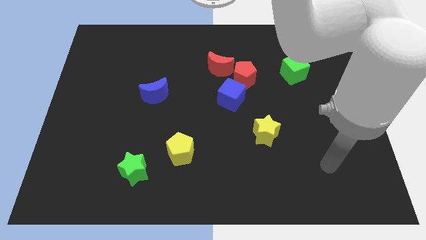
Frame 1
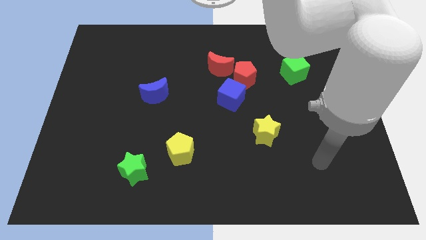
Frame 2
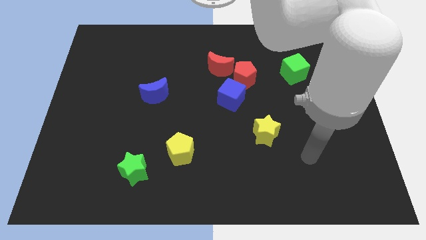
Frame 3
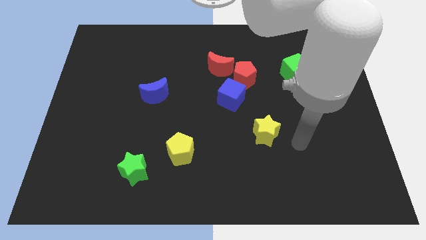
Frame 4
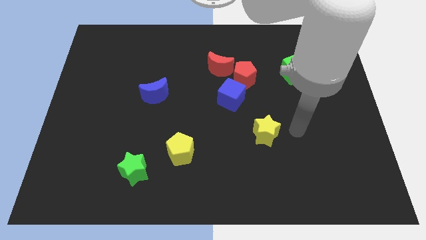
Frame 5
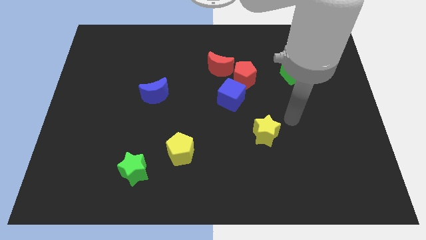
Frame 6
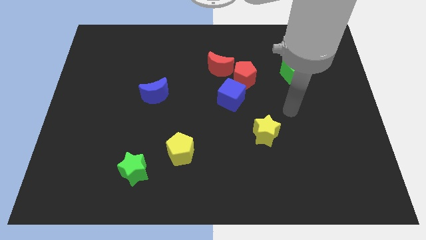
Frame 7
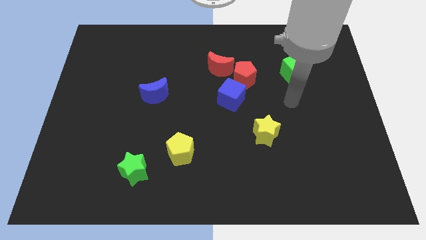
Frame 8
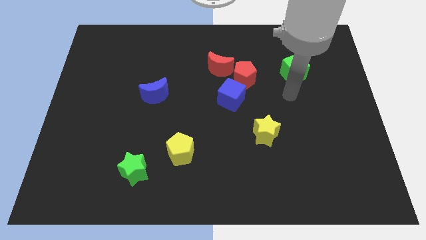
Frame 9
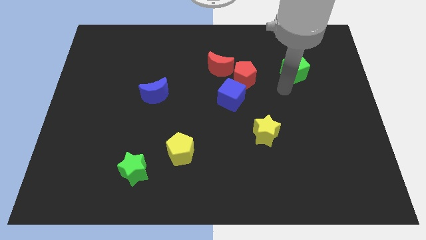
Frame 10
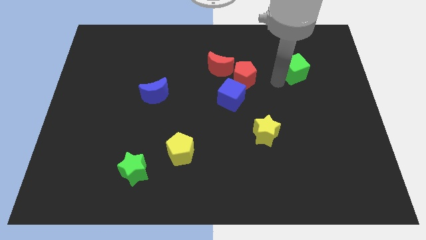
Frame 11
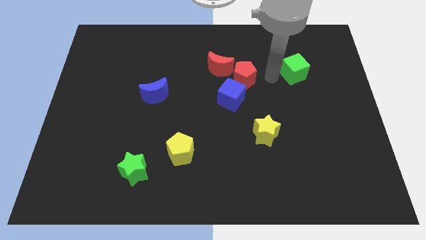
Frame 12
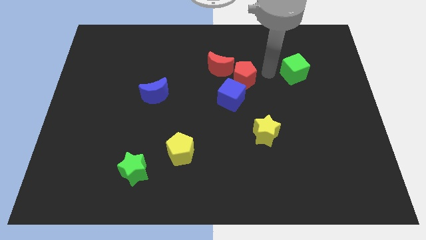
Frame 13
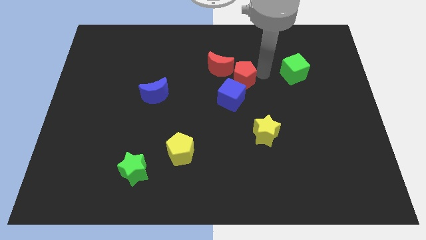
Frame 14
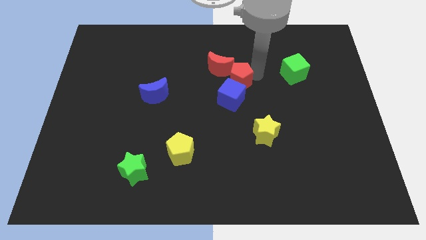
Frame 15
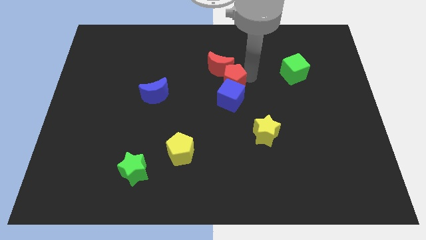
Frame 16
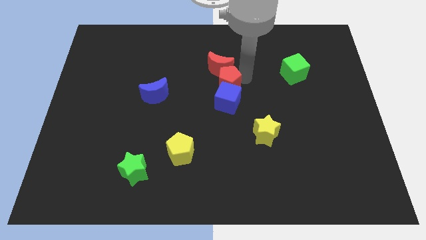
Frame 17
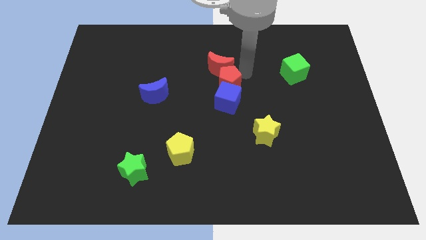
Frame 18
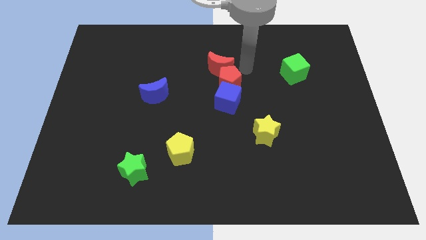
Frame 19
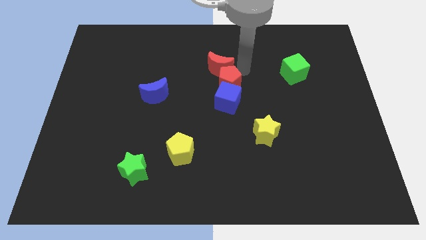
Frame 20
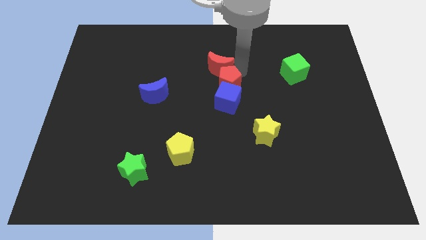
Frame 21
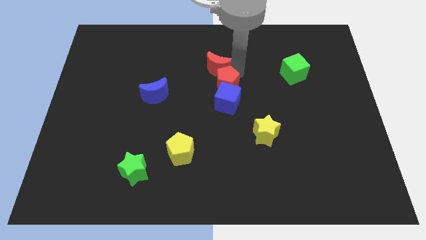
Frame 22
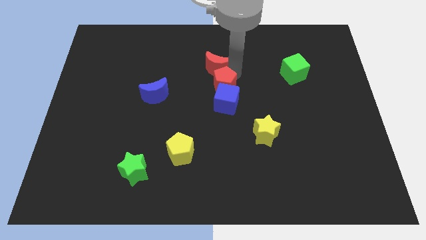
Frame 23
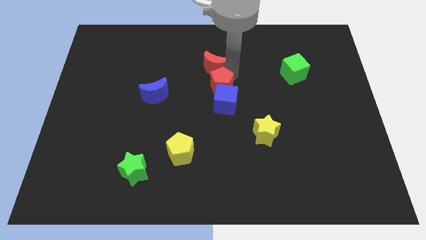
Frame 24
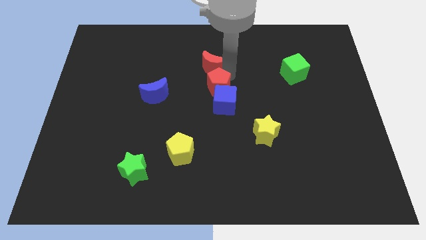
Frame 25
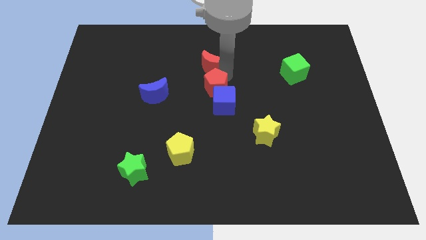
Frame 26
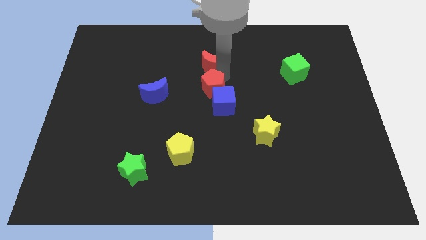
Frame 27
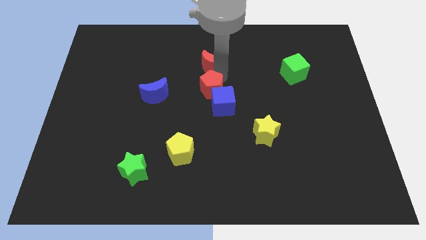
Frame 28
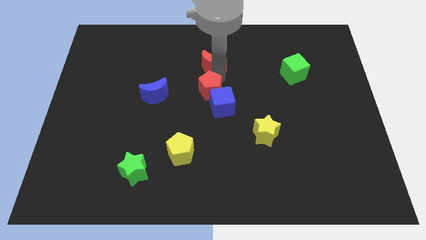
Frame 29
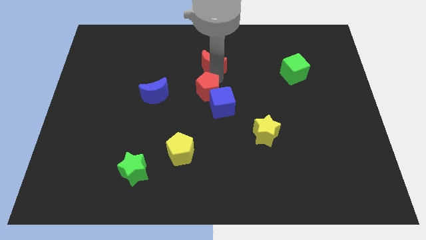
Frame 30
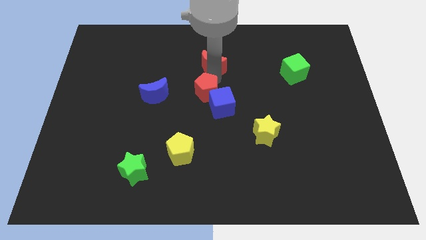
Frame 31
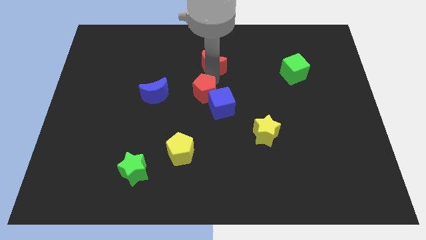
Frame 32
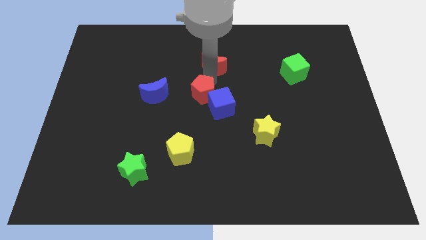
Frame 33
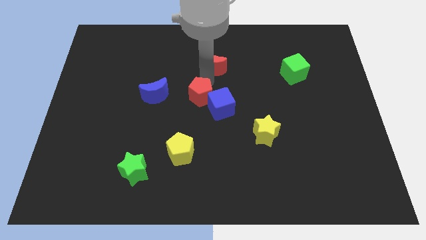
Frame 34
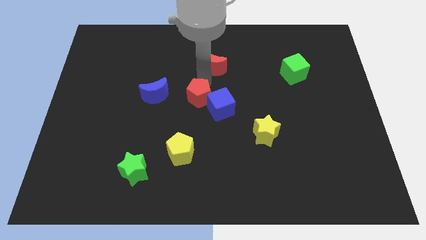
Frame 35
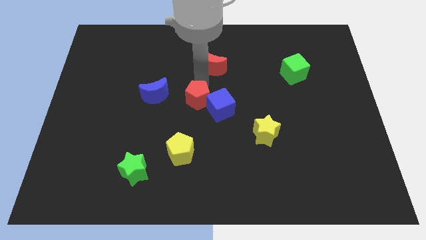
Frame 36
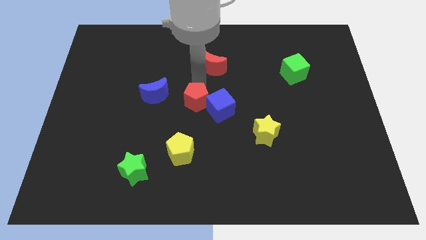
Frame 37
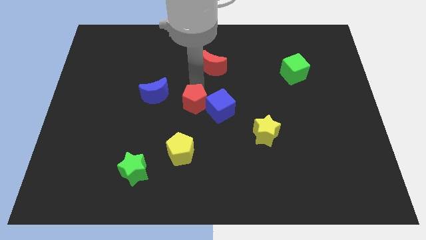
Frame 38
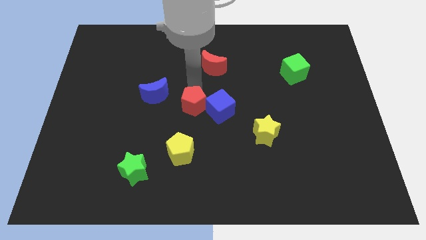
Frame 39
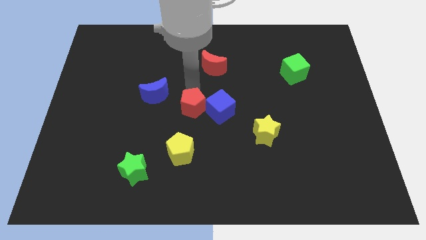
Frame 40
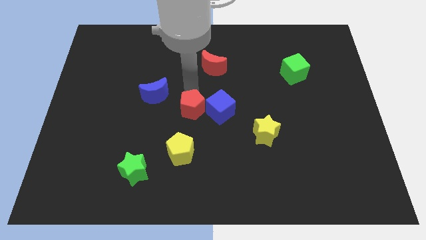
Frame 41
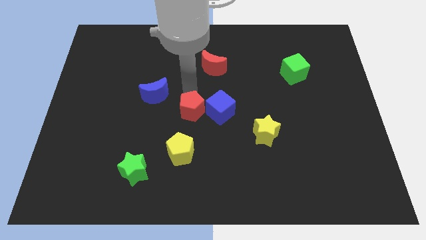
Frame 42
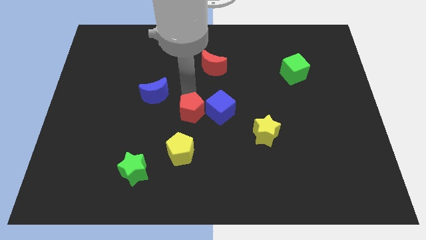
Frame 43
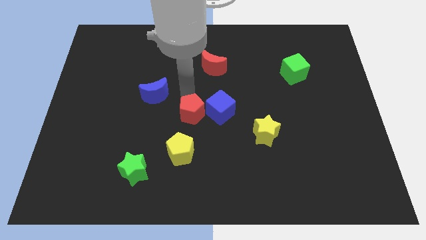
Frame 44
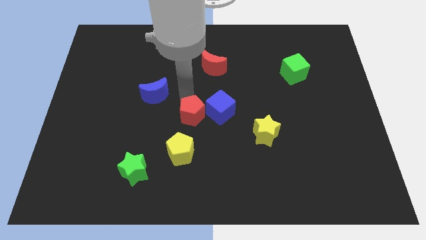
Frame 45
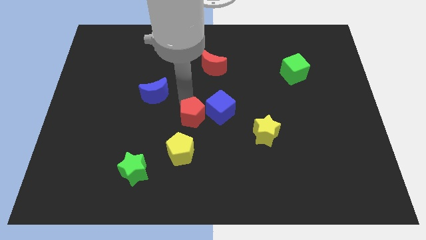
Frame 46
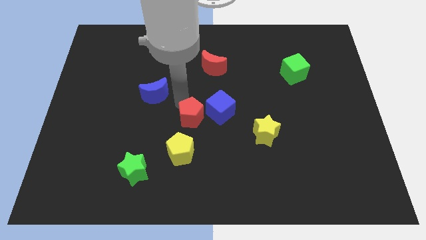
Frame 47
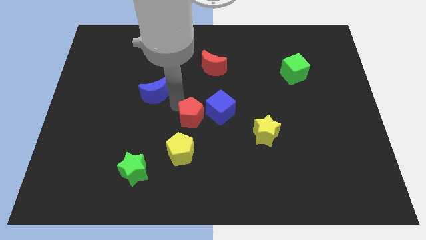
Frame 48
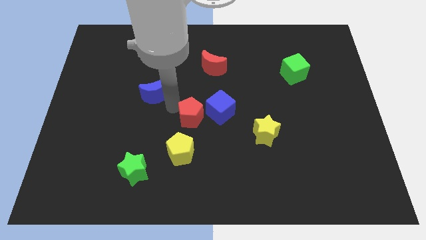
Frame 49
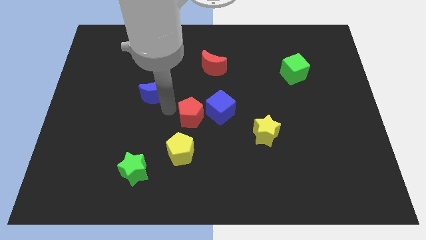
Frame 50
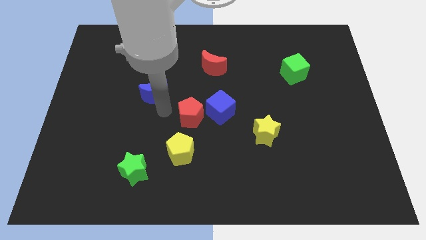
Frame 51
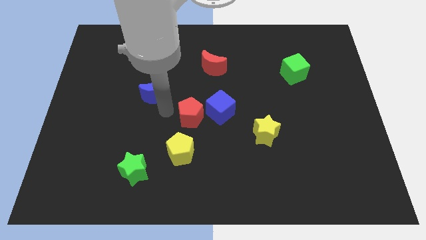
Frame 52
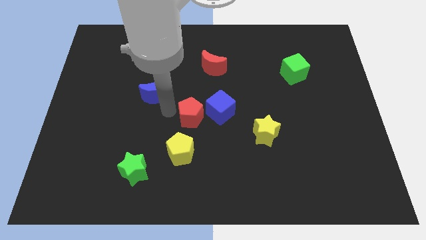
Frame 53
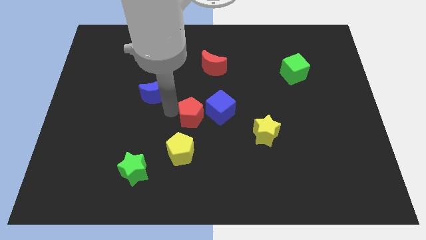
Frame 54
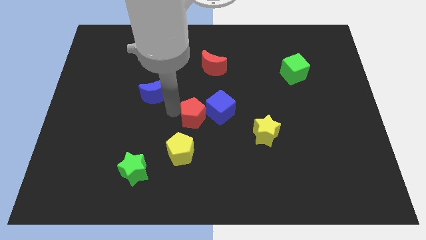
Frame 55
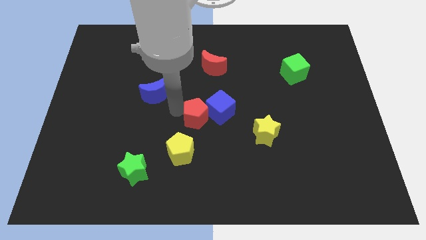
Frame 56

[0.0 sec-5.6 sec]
put the red pentagon diagonally up and to the right of the yellow pentagon

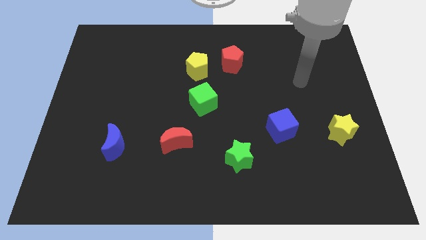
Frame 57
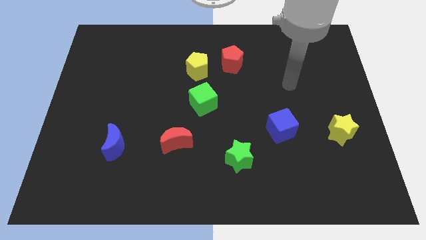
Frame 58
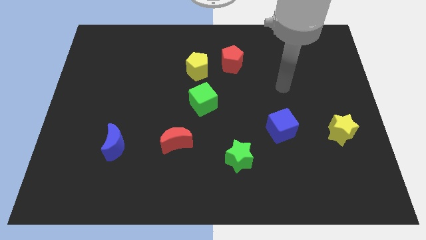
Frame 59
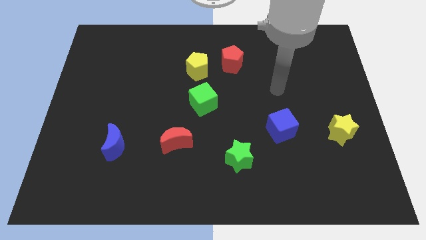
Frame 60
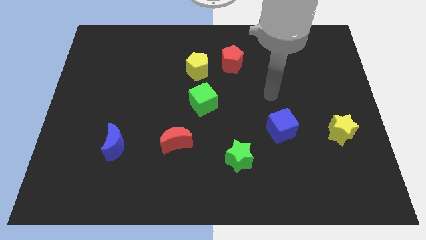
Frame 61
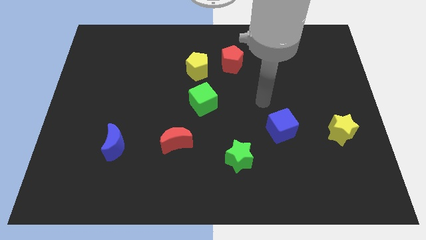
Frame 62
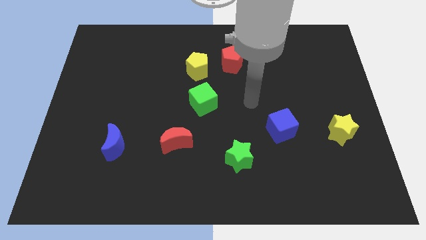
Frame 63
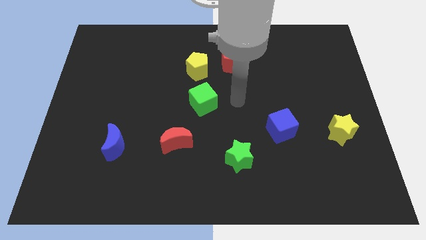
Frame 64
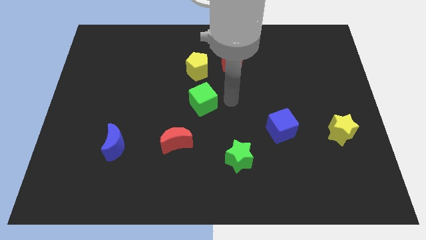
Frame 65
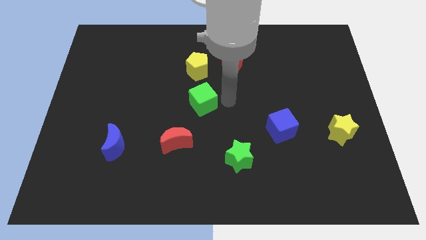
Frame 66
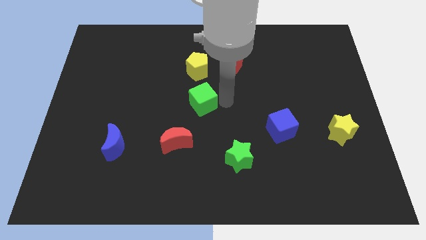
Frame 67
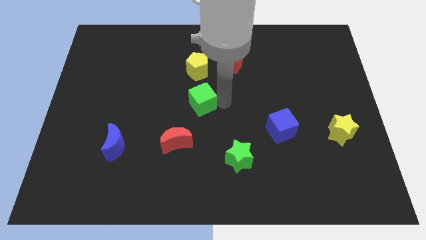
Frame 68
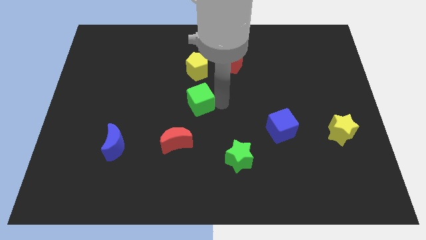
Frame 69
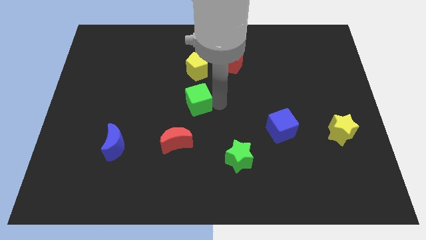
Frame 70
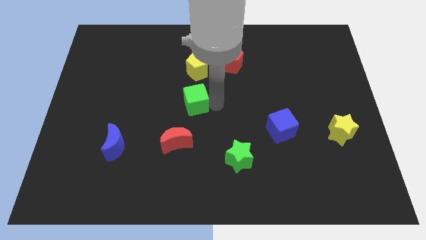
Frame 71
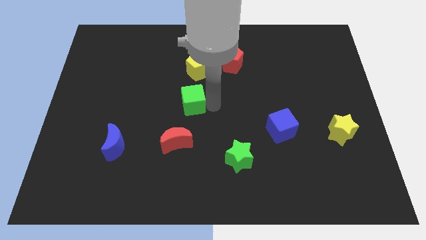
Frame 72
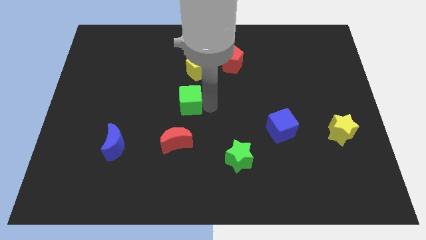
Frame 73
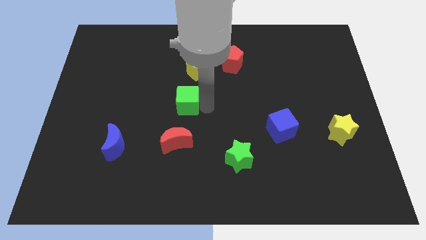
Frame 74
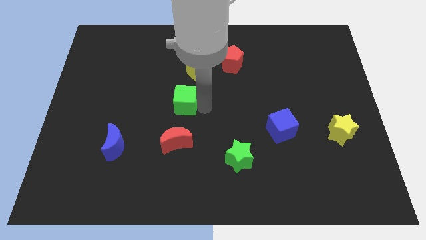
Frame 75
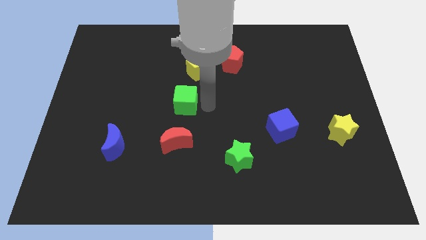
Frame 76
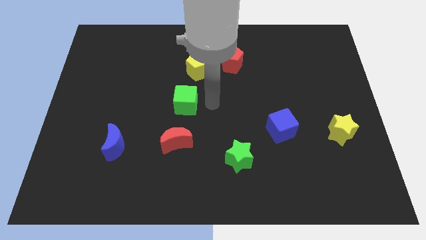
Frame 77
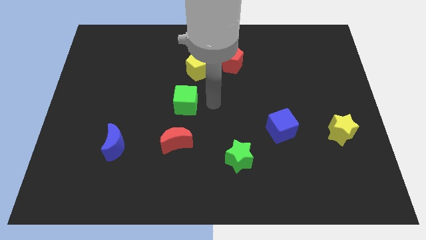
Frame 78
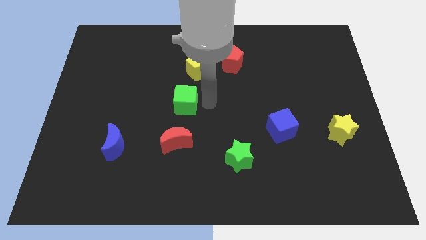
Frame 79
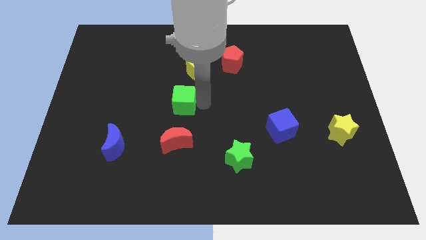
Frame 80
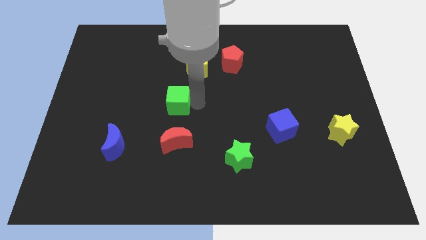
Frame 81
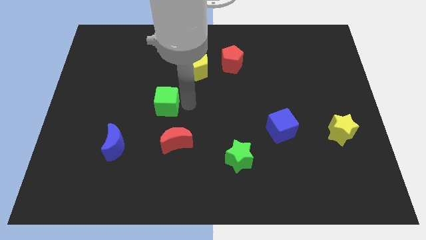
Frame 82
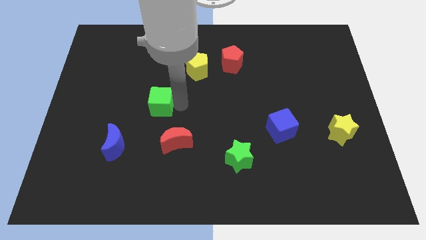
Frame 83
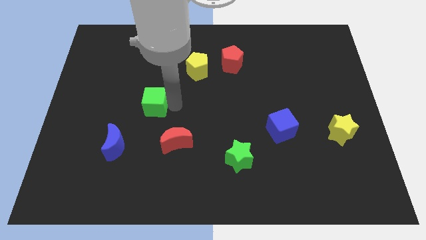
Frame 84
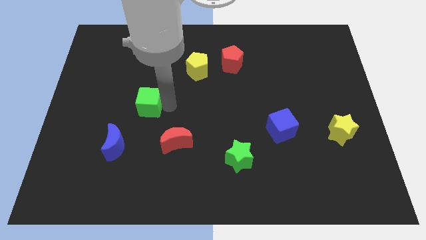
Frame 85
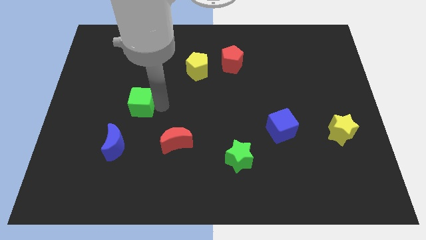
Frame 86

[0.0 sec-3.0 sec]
slide the green cube above the blue moon
